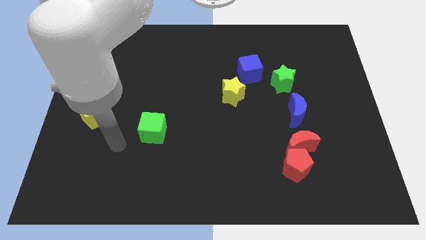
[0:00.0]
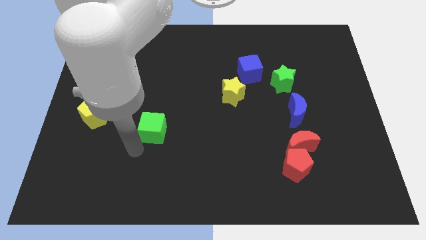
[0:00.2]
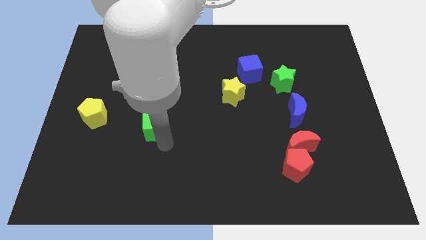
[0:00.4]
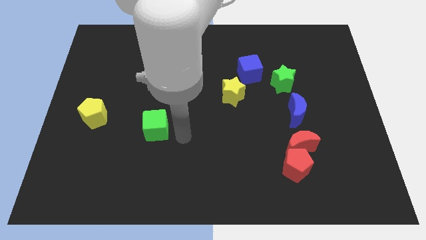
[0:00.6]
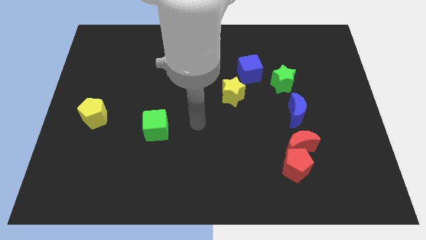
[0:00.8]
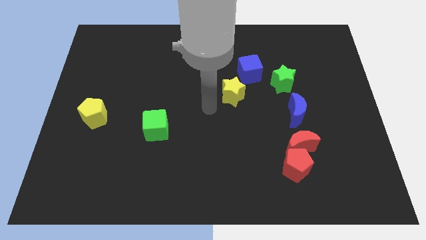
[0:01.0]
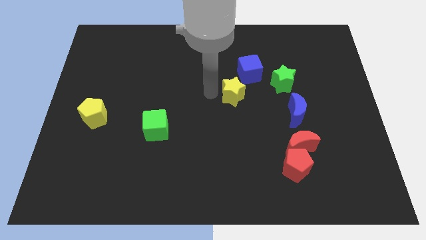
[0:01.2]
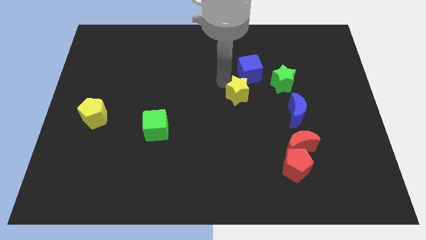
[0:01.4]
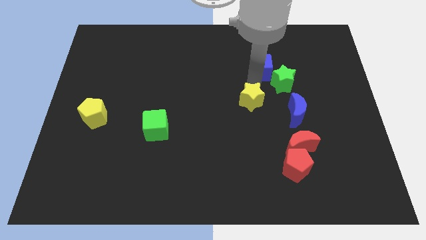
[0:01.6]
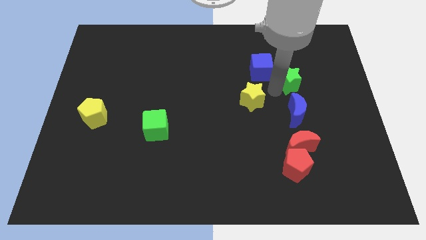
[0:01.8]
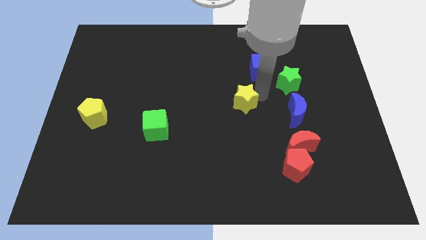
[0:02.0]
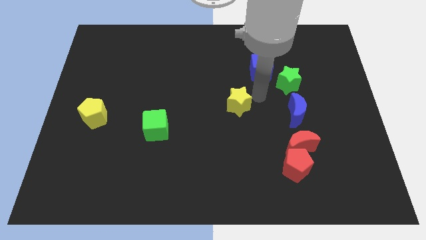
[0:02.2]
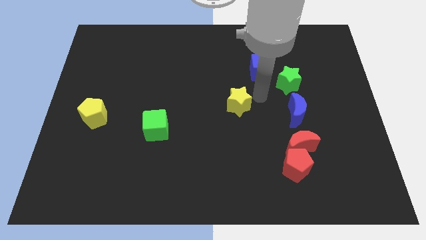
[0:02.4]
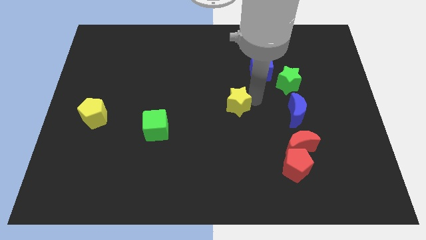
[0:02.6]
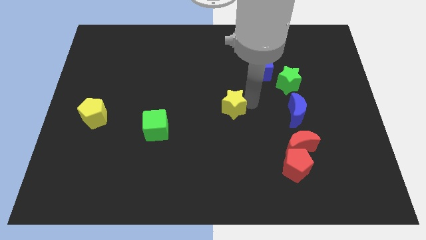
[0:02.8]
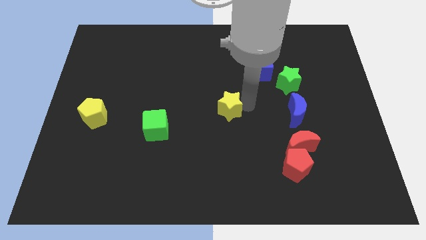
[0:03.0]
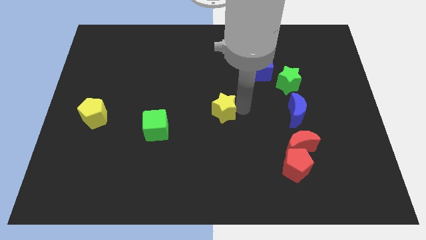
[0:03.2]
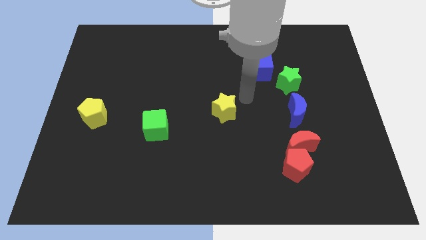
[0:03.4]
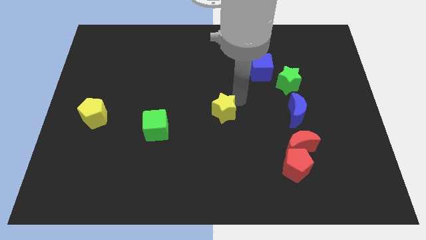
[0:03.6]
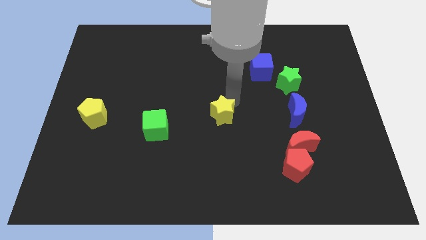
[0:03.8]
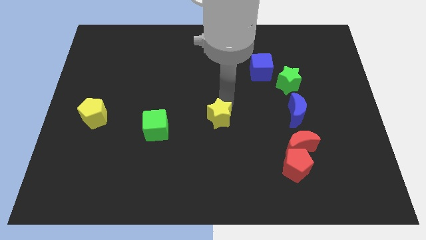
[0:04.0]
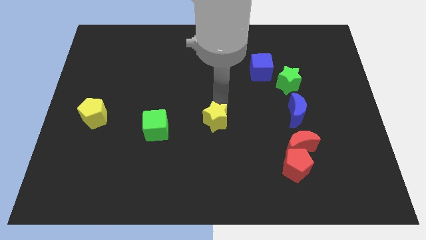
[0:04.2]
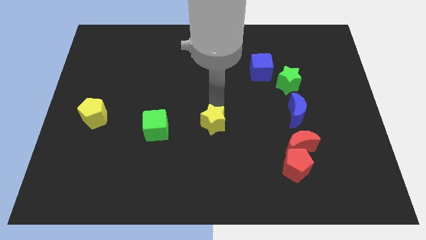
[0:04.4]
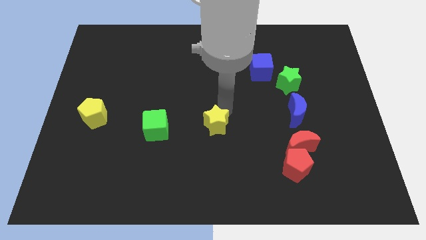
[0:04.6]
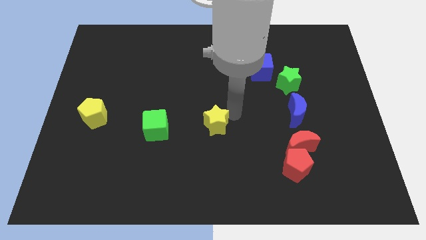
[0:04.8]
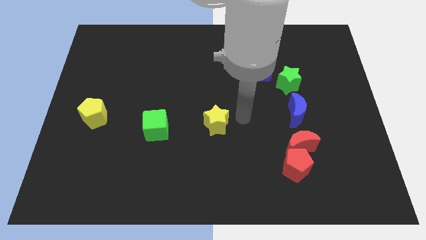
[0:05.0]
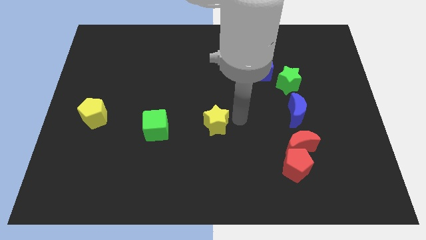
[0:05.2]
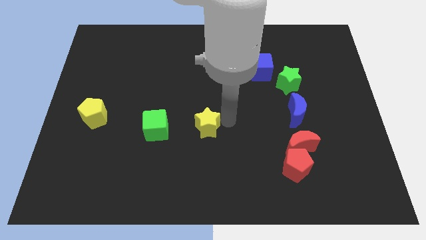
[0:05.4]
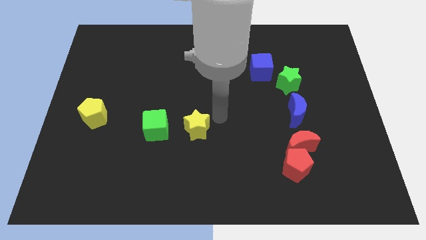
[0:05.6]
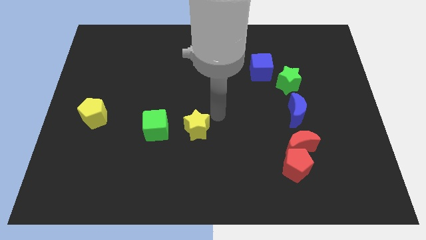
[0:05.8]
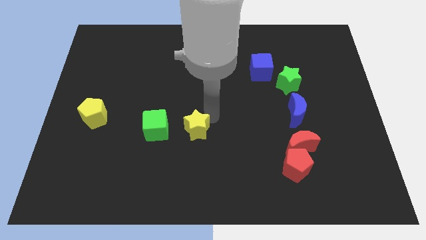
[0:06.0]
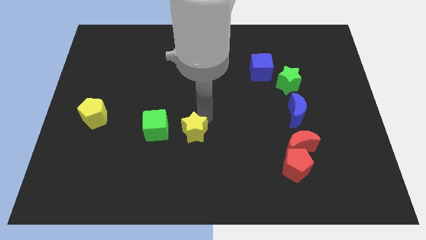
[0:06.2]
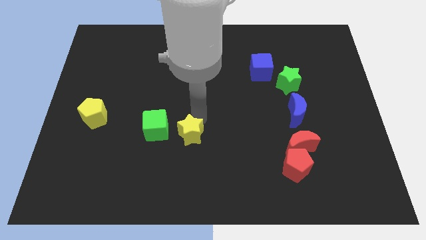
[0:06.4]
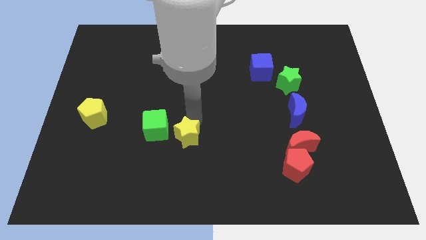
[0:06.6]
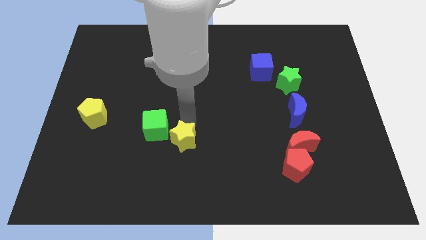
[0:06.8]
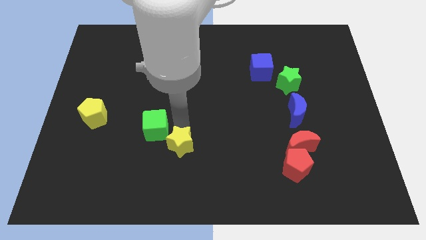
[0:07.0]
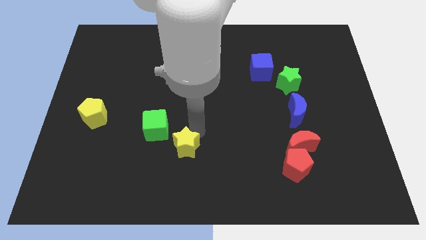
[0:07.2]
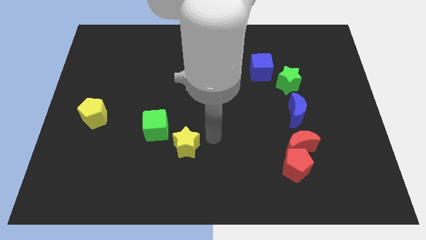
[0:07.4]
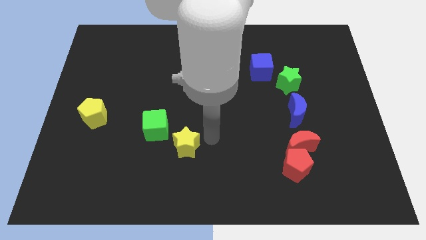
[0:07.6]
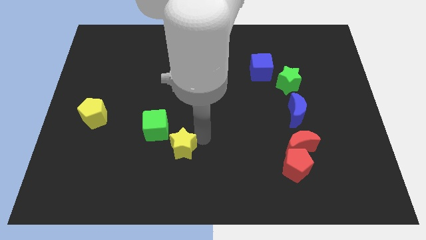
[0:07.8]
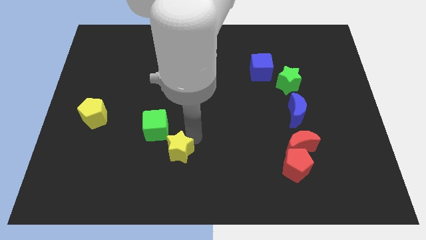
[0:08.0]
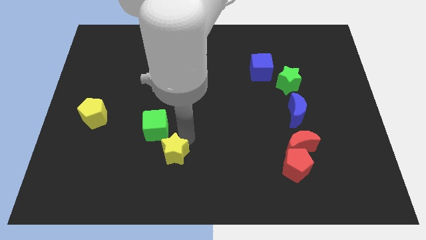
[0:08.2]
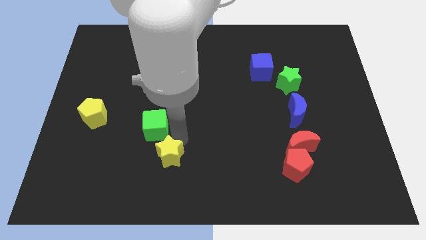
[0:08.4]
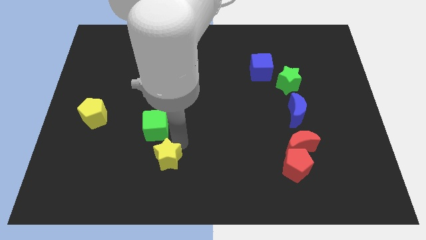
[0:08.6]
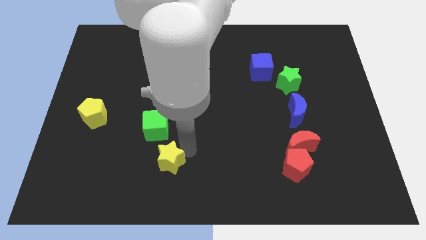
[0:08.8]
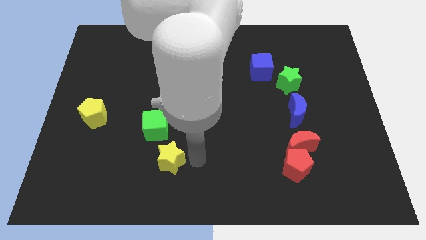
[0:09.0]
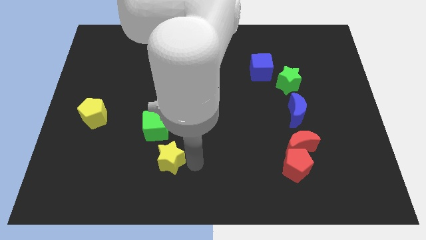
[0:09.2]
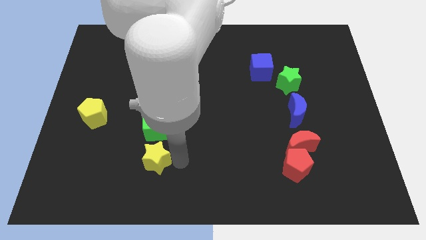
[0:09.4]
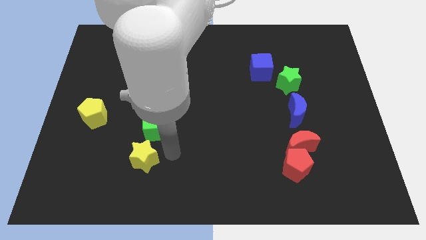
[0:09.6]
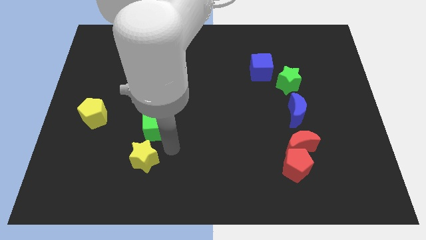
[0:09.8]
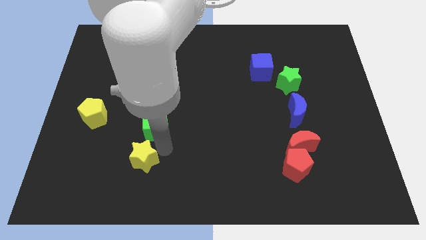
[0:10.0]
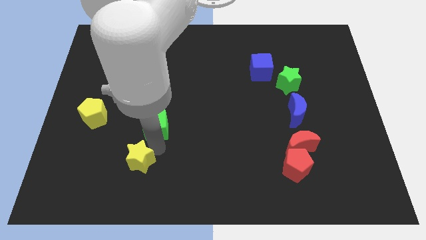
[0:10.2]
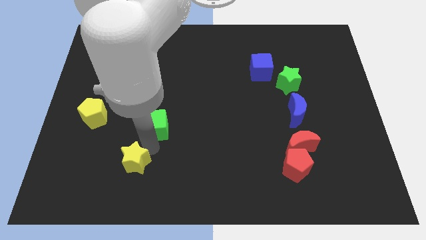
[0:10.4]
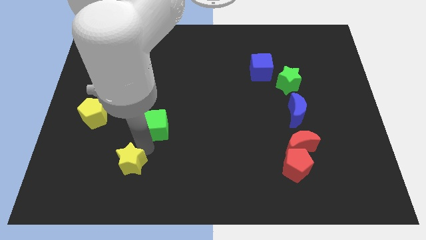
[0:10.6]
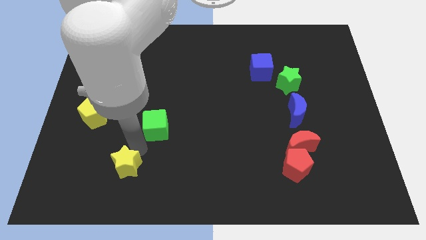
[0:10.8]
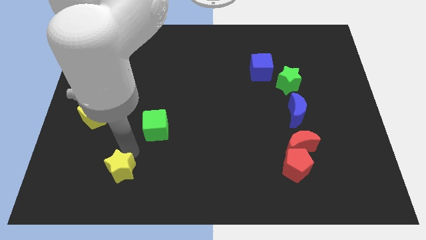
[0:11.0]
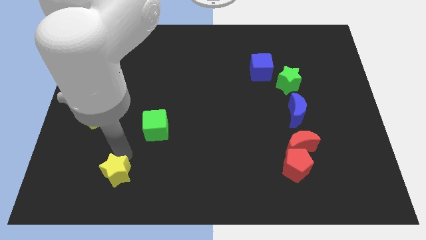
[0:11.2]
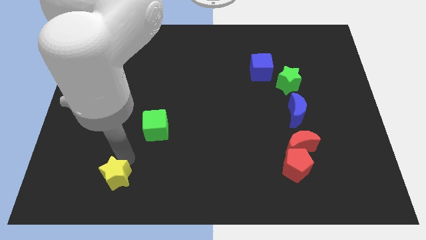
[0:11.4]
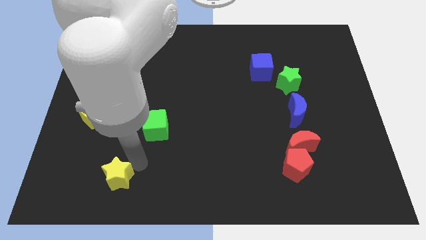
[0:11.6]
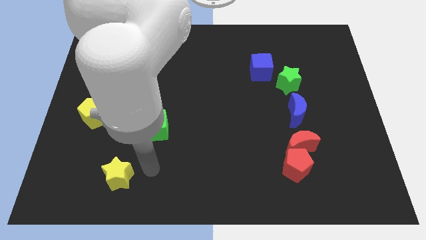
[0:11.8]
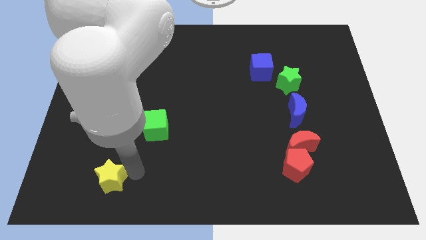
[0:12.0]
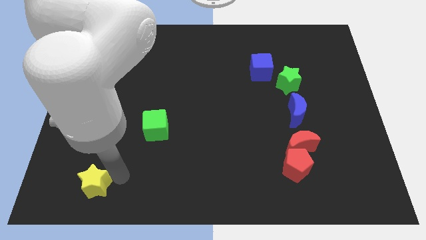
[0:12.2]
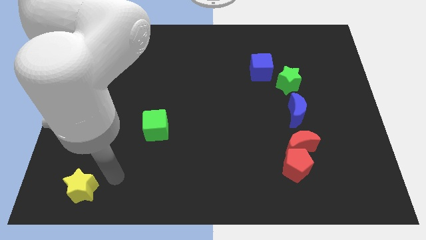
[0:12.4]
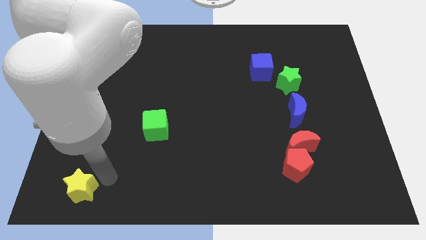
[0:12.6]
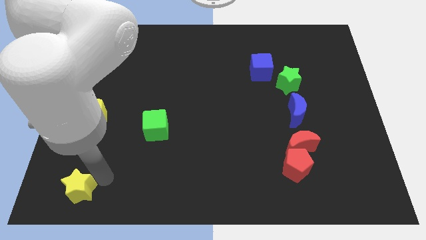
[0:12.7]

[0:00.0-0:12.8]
slide the yellow star to the bottom left
